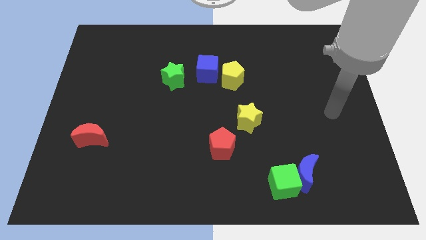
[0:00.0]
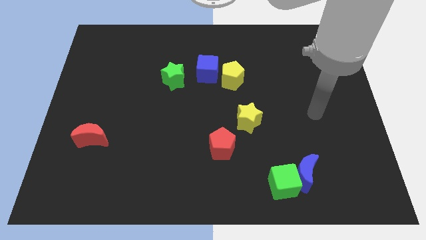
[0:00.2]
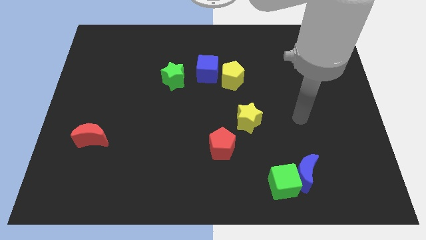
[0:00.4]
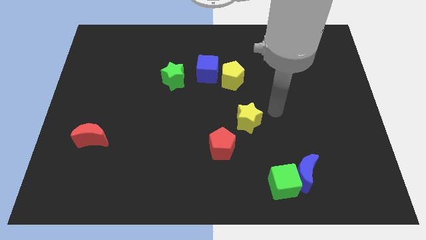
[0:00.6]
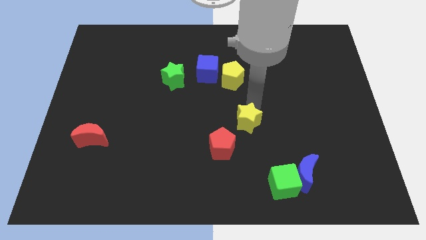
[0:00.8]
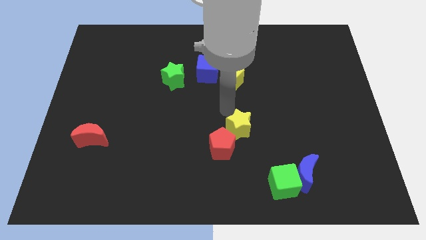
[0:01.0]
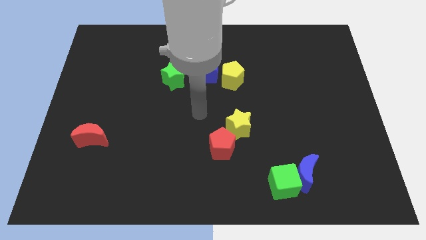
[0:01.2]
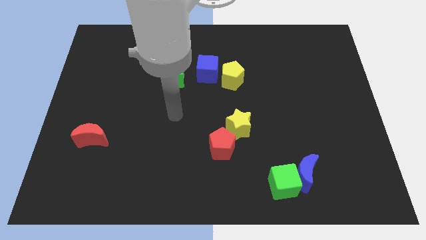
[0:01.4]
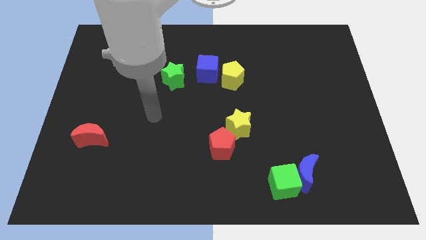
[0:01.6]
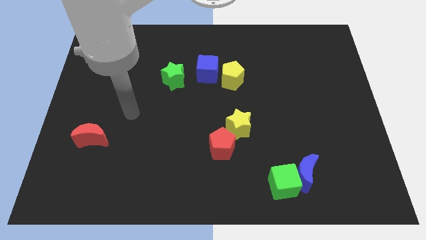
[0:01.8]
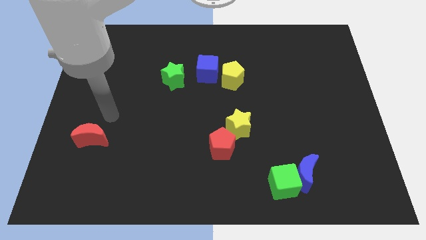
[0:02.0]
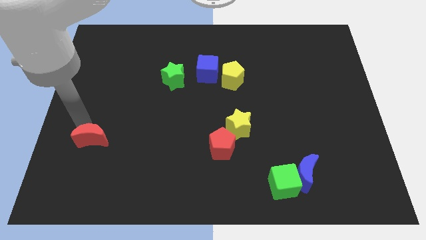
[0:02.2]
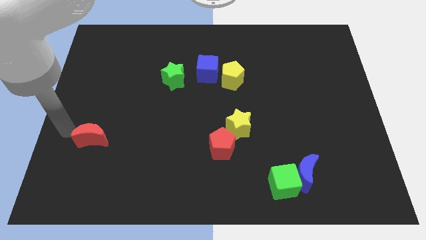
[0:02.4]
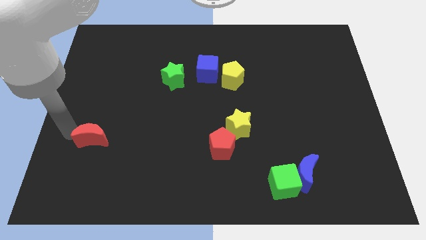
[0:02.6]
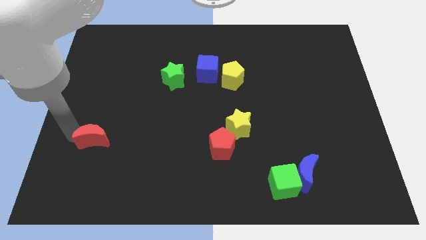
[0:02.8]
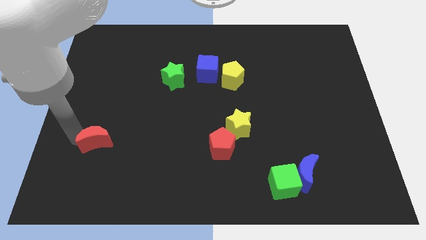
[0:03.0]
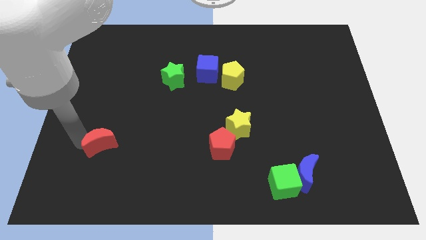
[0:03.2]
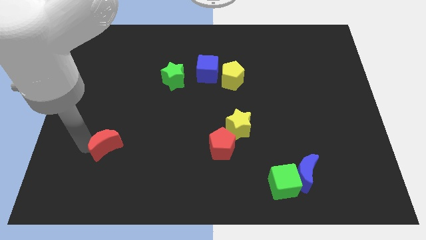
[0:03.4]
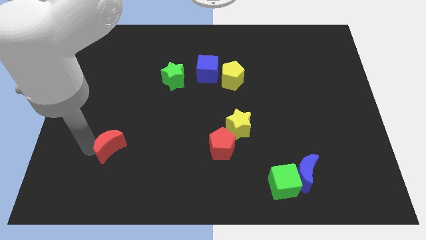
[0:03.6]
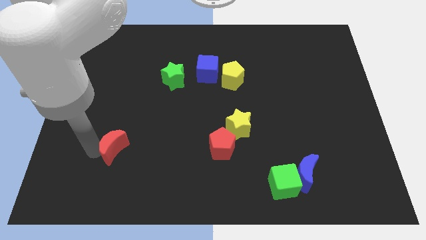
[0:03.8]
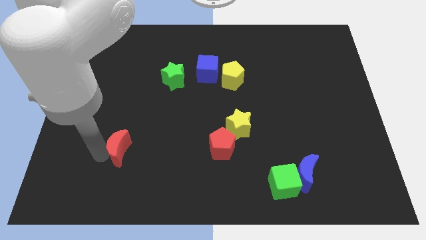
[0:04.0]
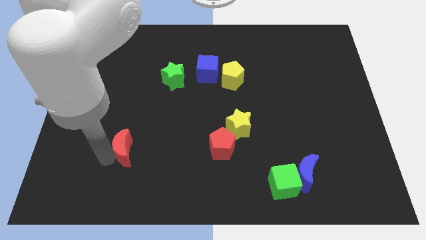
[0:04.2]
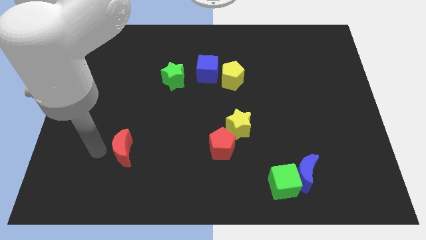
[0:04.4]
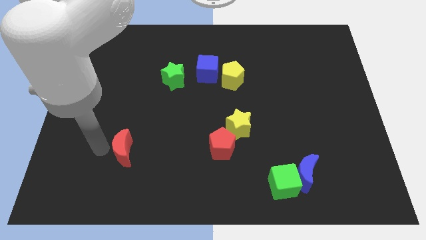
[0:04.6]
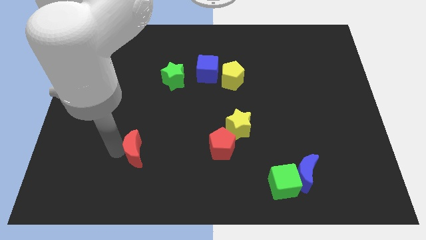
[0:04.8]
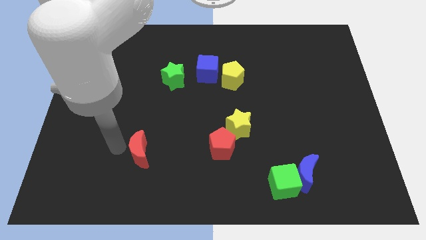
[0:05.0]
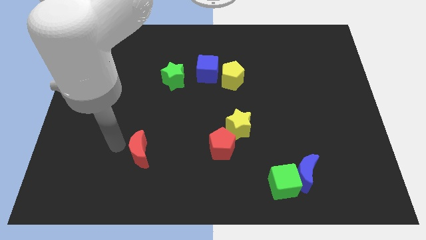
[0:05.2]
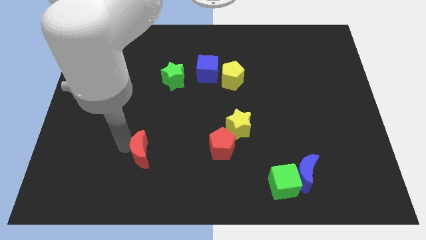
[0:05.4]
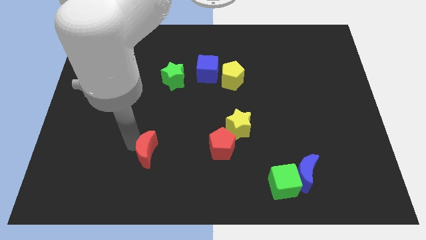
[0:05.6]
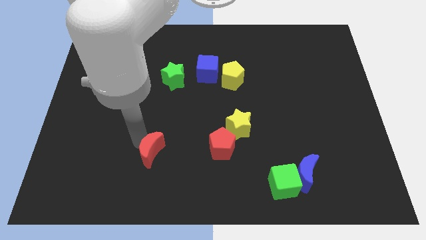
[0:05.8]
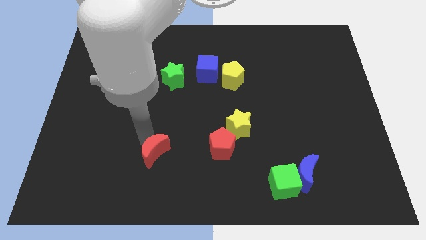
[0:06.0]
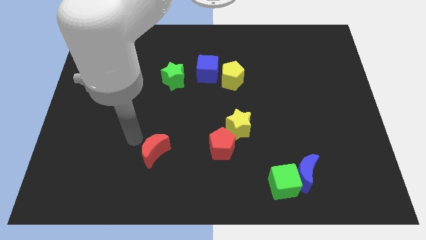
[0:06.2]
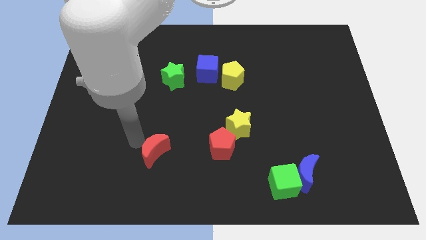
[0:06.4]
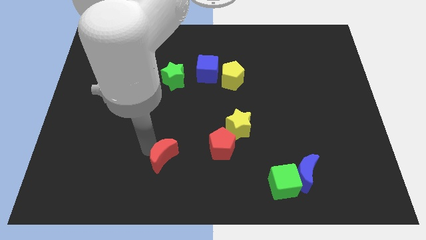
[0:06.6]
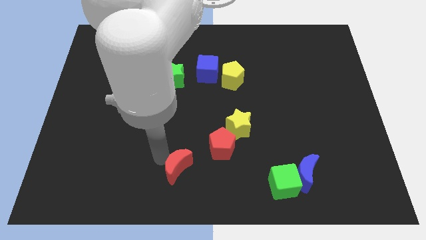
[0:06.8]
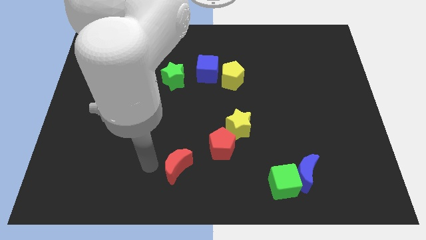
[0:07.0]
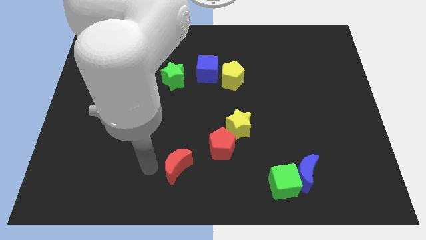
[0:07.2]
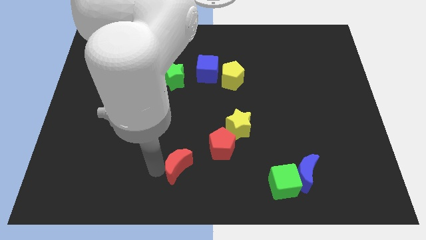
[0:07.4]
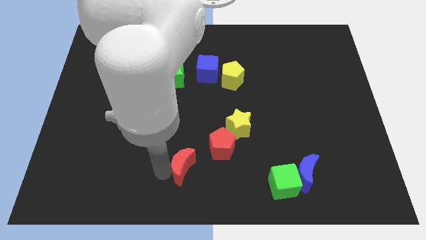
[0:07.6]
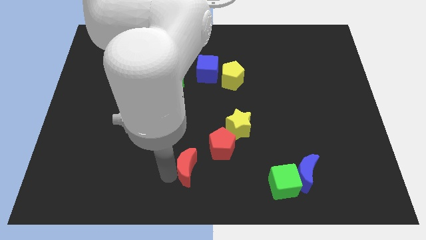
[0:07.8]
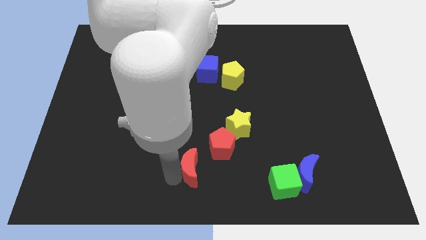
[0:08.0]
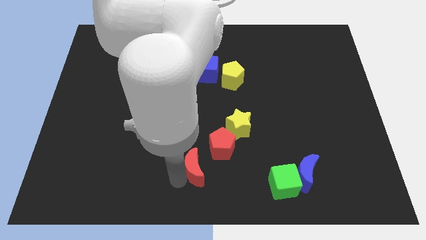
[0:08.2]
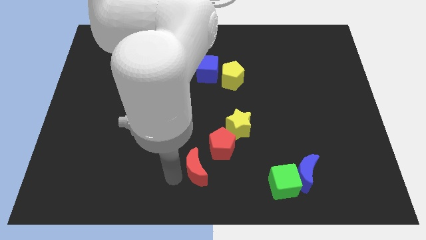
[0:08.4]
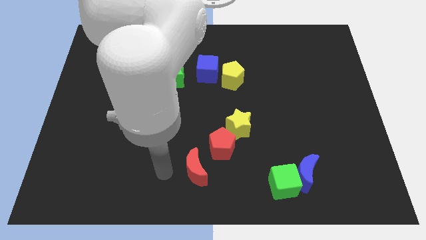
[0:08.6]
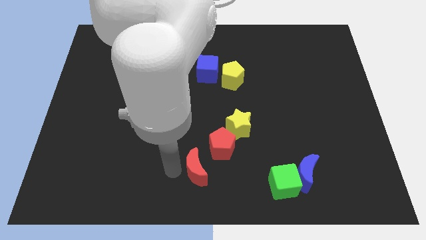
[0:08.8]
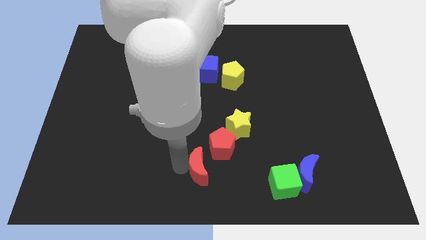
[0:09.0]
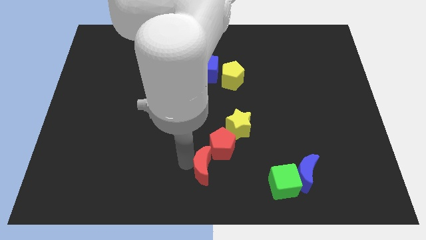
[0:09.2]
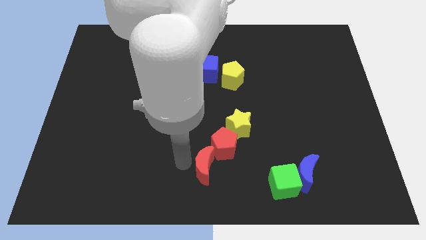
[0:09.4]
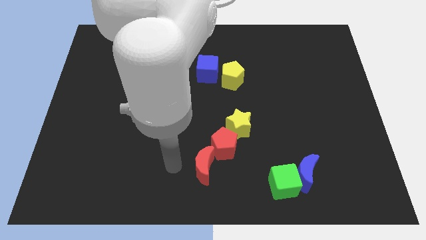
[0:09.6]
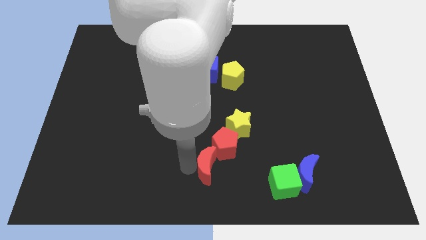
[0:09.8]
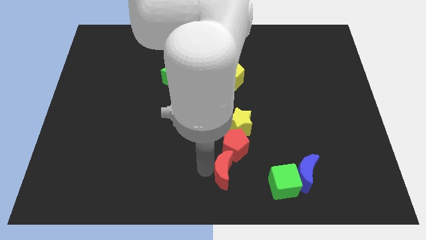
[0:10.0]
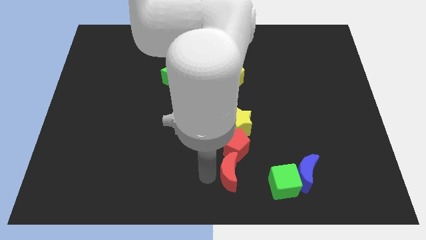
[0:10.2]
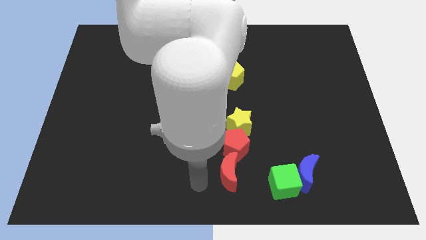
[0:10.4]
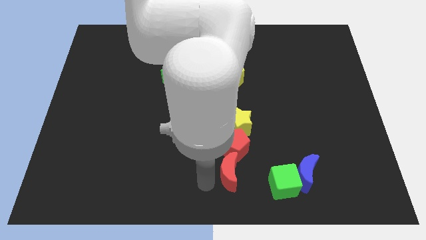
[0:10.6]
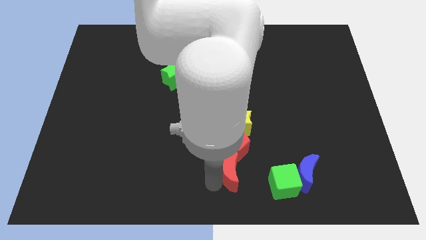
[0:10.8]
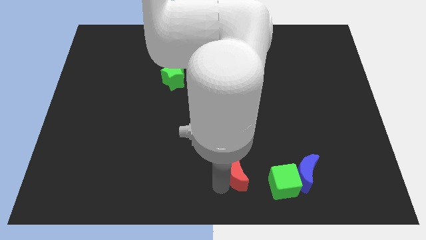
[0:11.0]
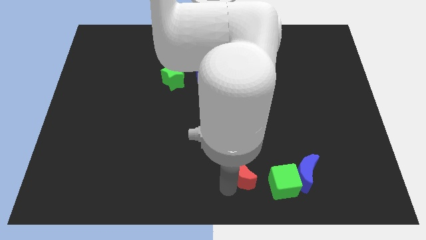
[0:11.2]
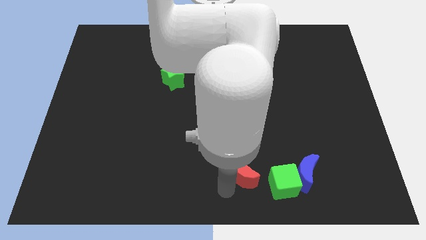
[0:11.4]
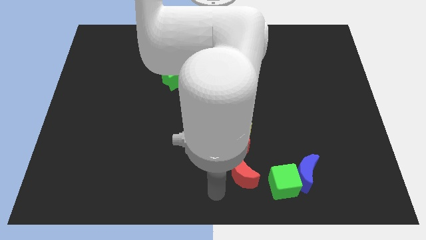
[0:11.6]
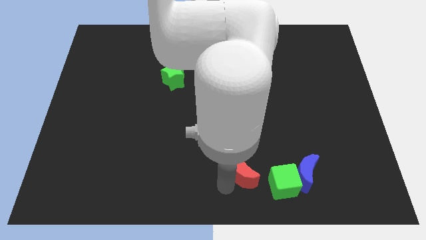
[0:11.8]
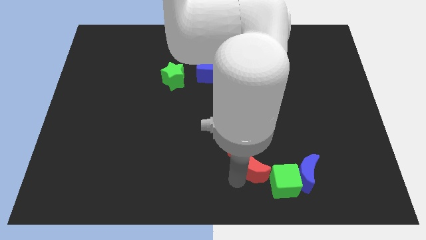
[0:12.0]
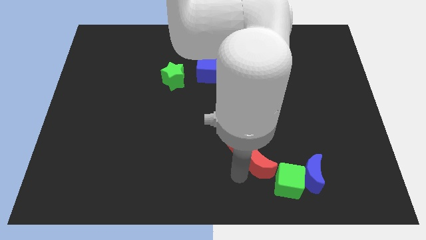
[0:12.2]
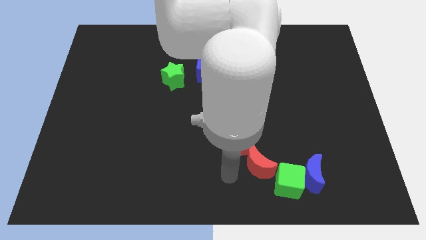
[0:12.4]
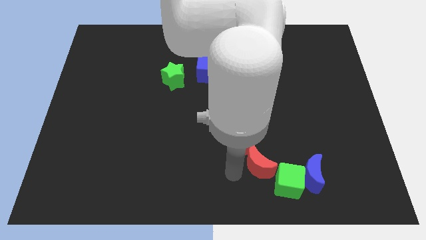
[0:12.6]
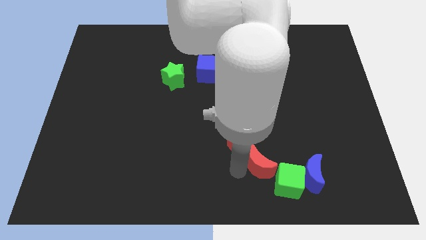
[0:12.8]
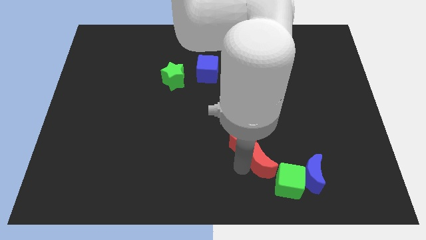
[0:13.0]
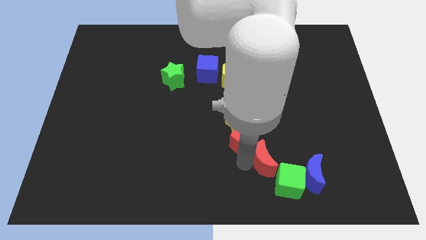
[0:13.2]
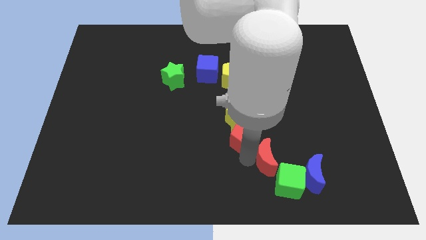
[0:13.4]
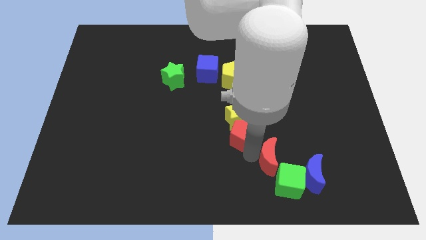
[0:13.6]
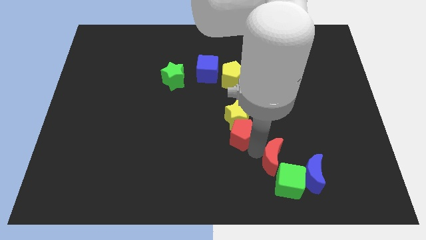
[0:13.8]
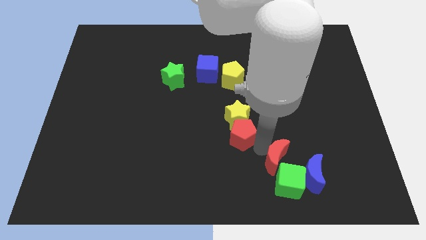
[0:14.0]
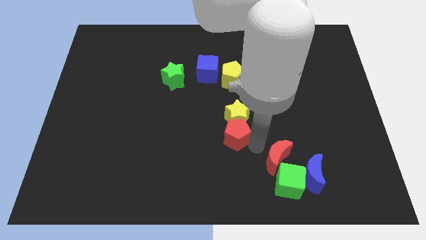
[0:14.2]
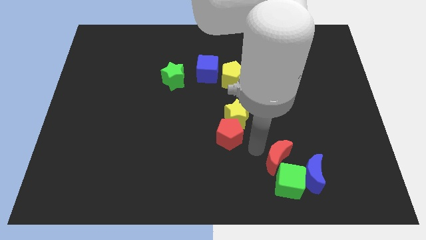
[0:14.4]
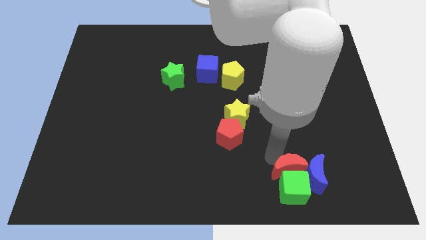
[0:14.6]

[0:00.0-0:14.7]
push the red moon next to the blue moon
